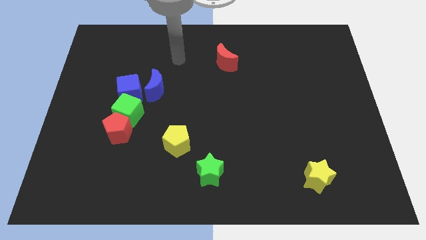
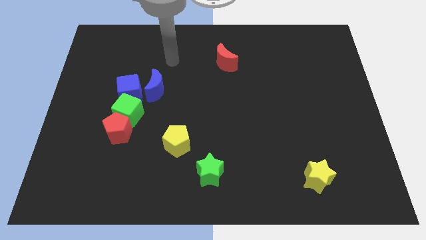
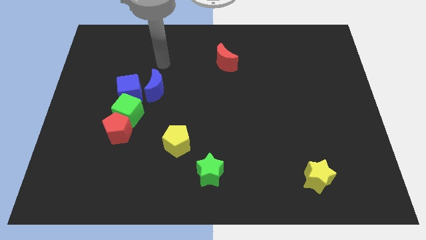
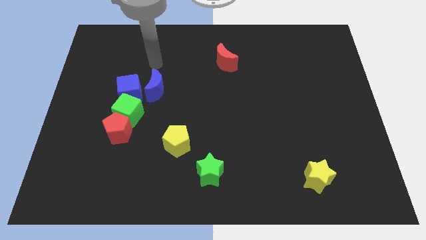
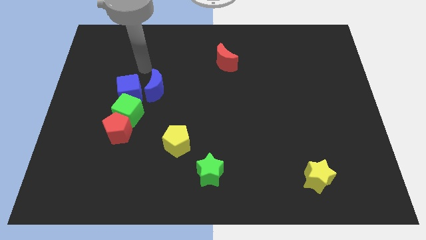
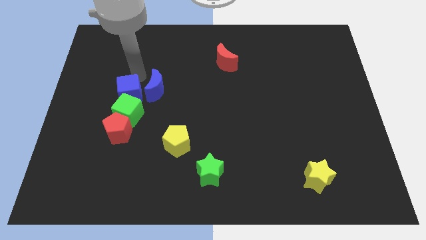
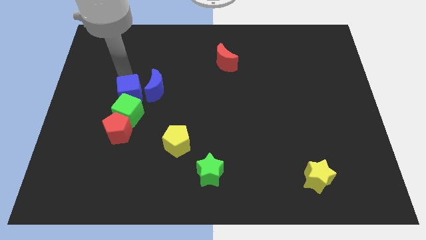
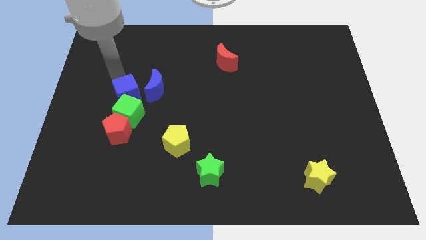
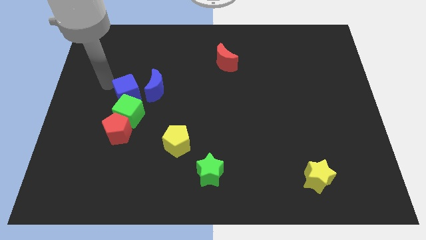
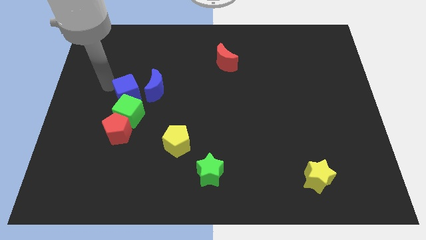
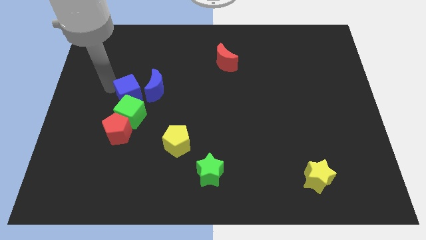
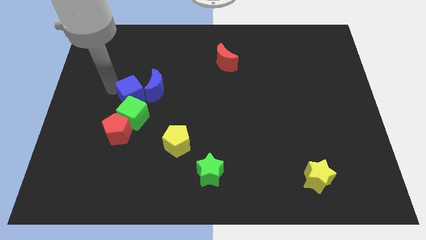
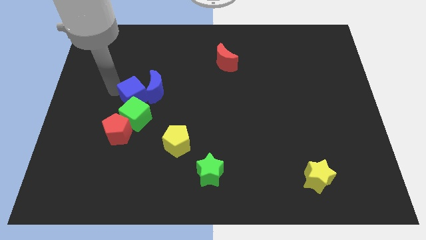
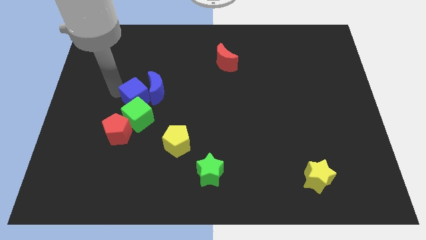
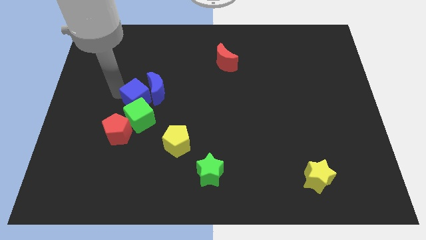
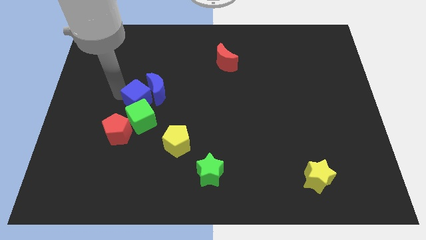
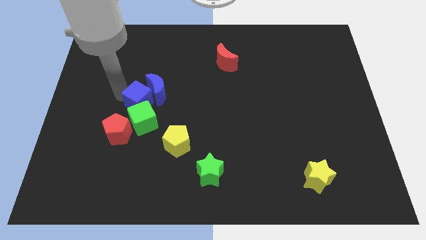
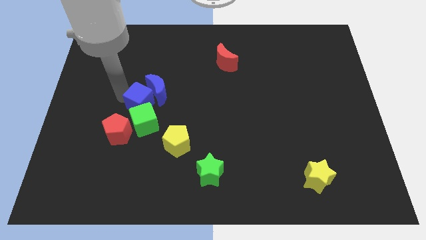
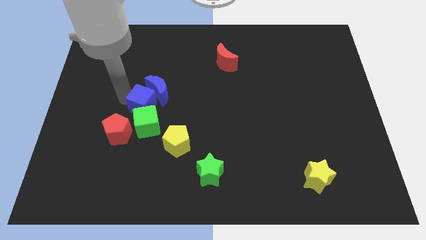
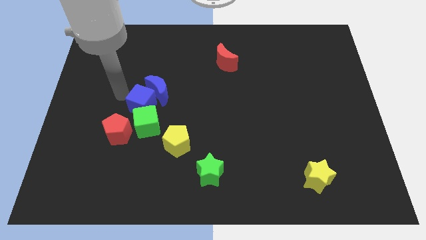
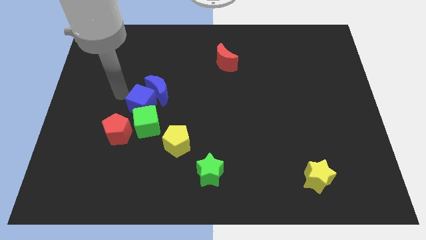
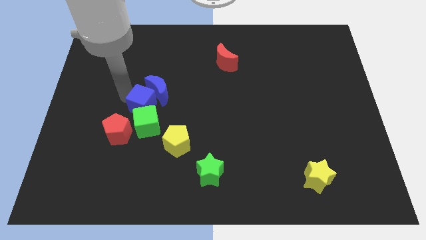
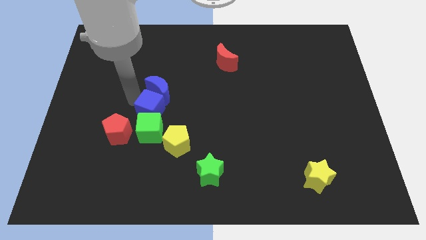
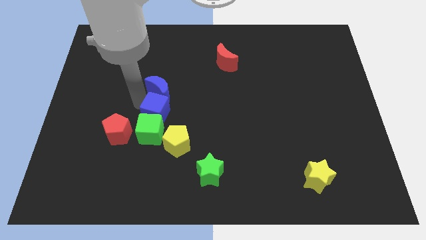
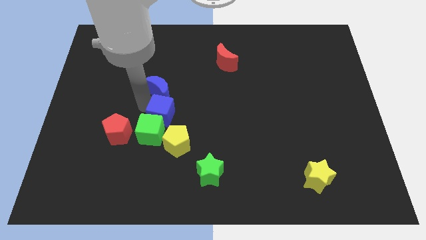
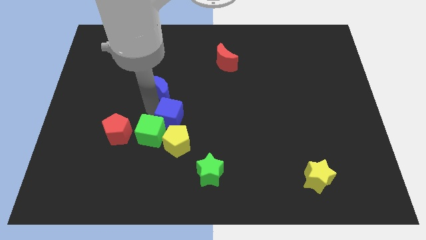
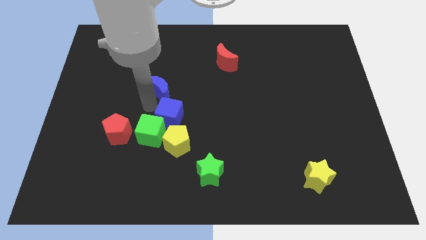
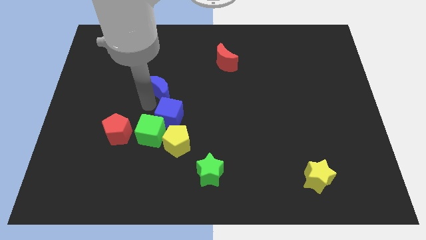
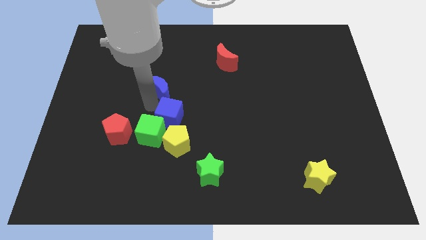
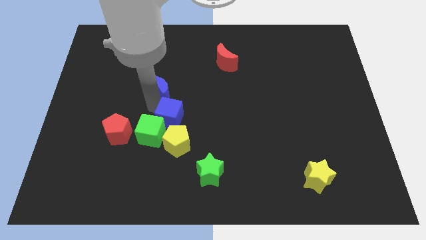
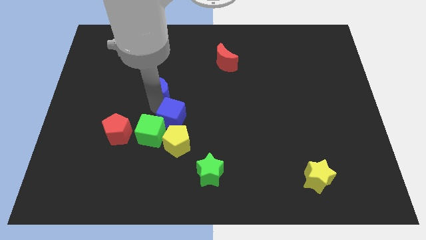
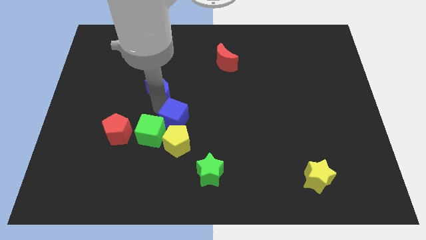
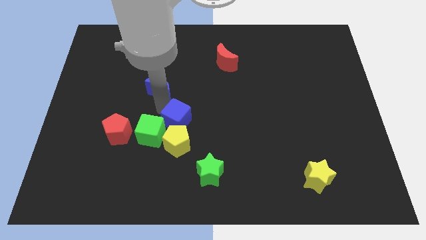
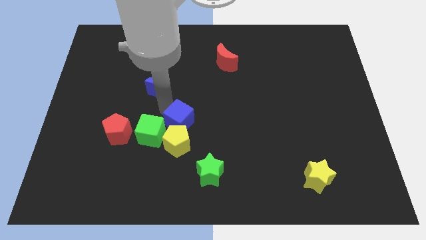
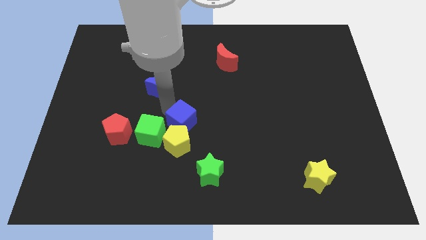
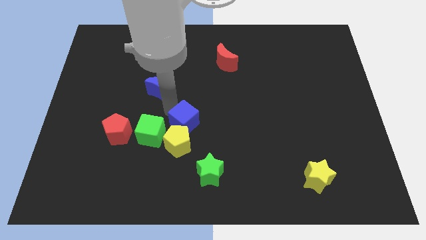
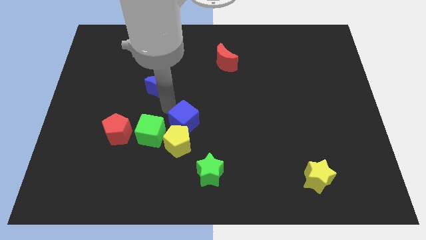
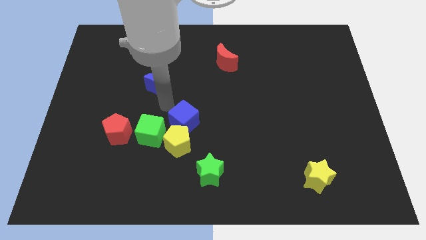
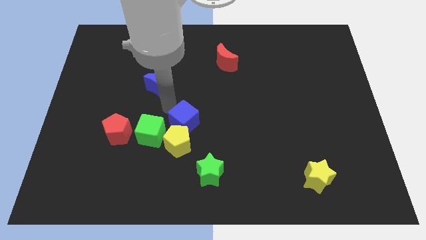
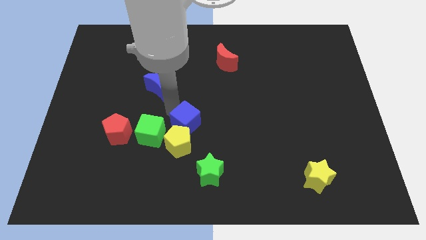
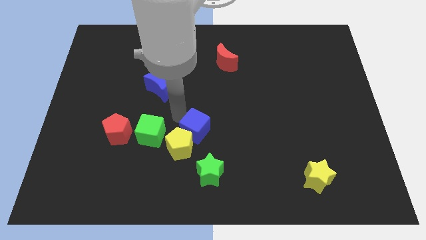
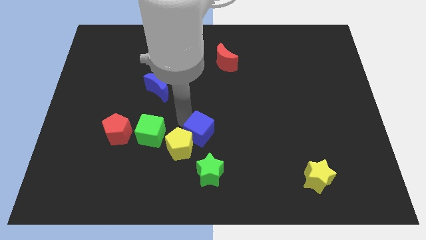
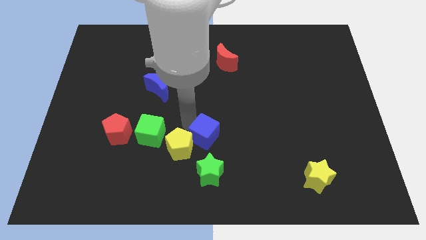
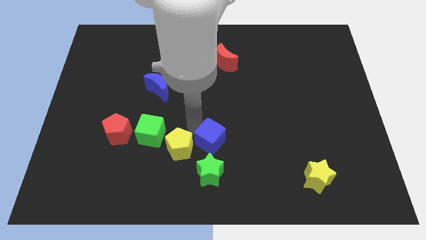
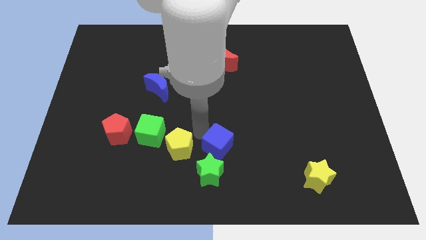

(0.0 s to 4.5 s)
push the blue cube to the top right side of the green star

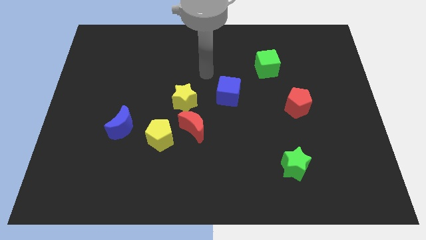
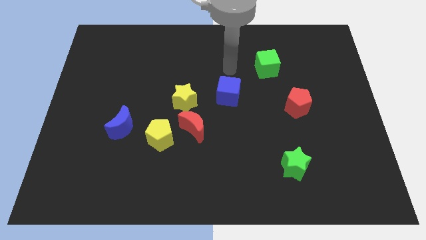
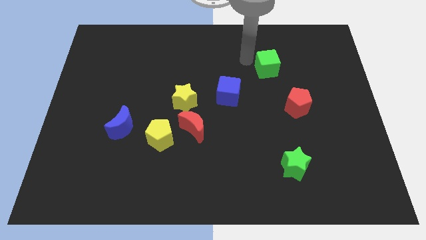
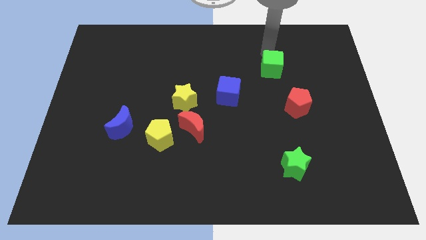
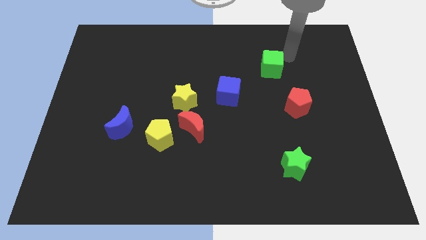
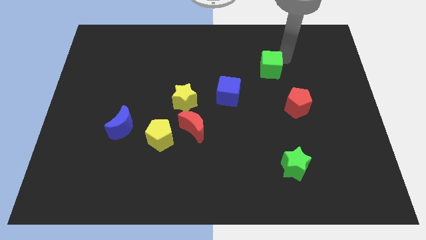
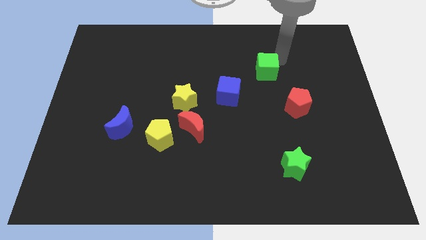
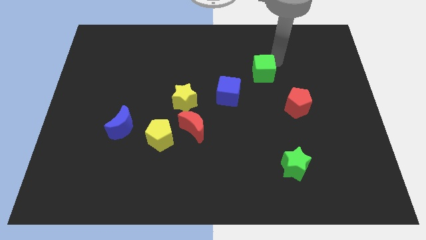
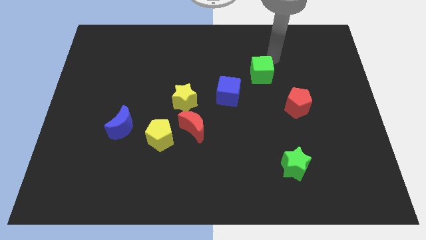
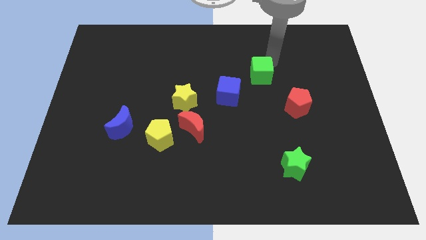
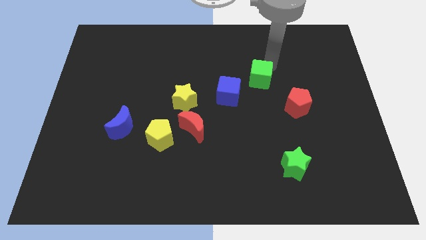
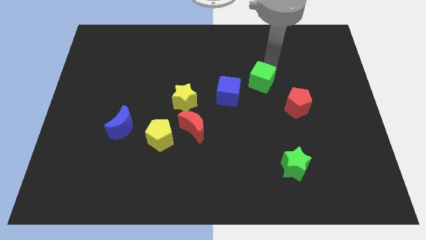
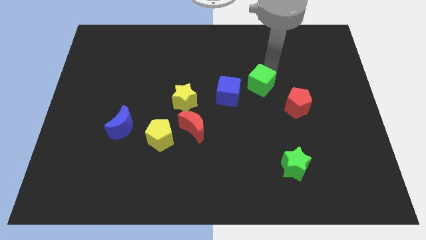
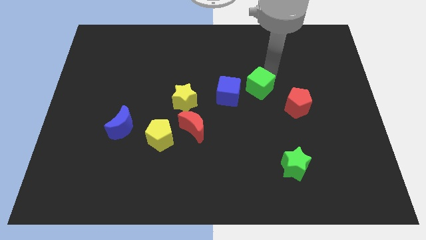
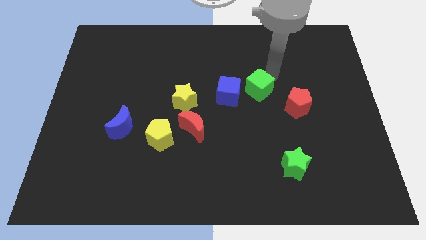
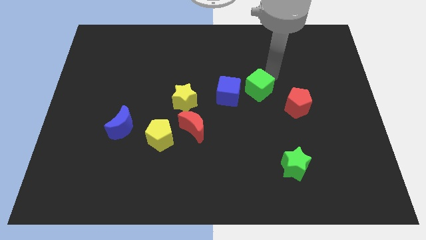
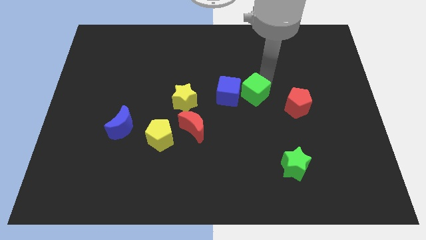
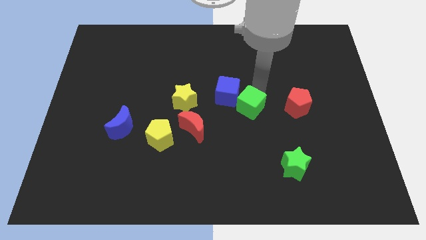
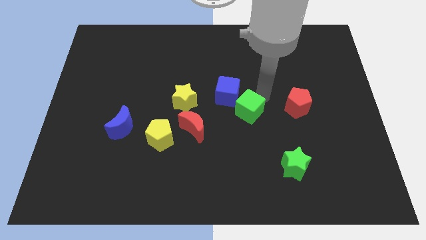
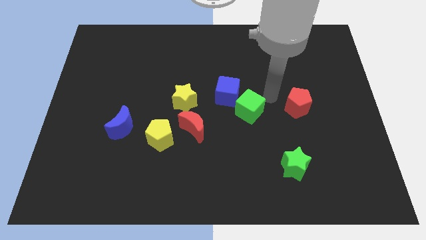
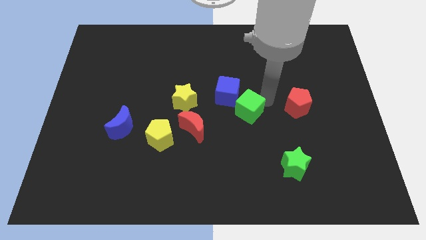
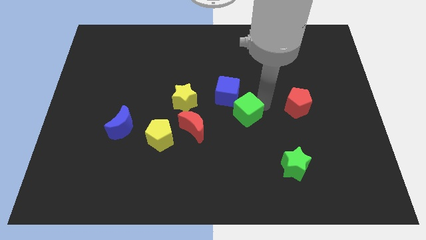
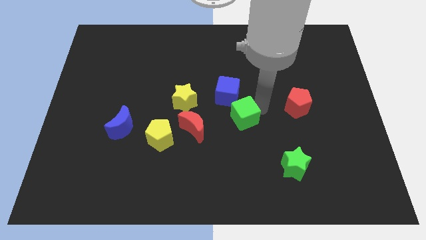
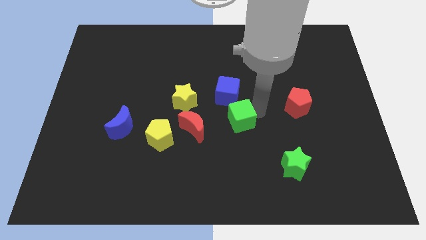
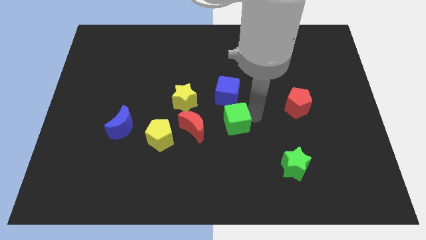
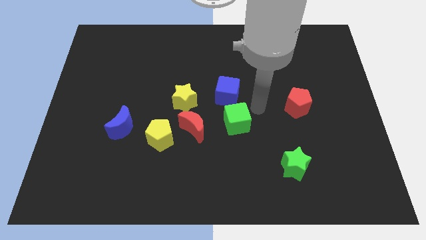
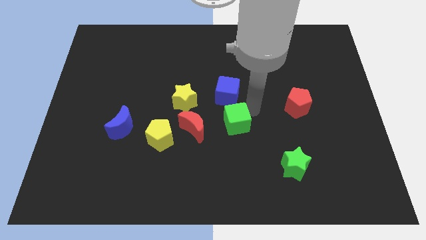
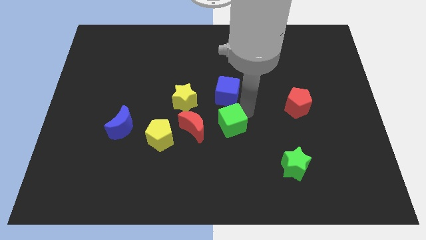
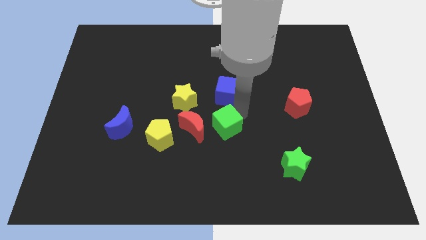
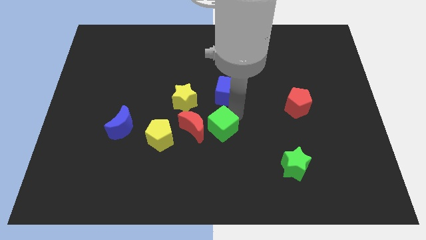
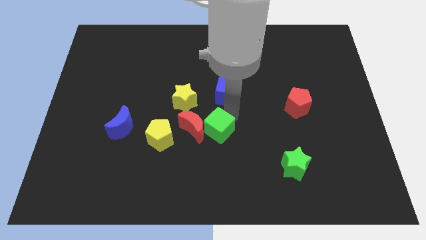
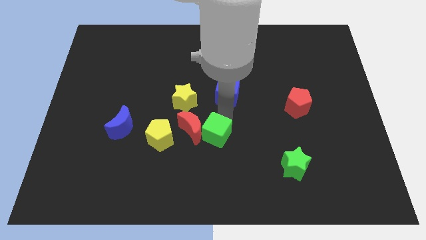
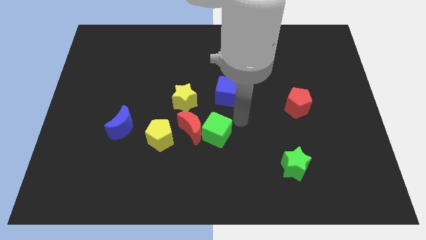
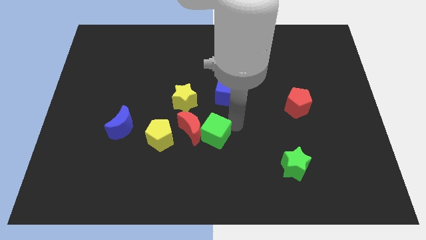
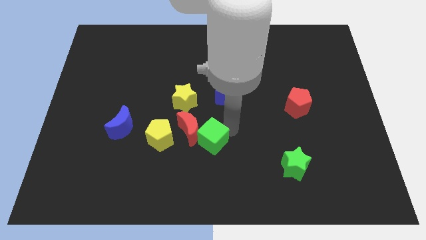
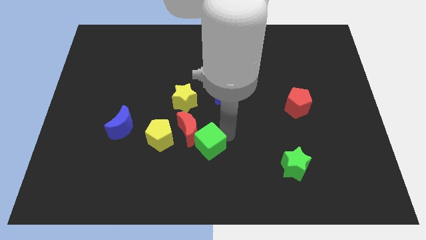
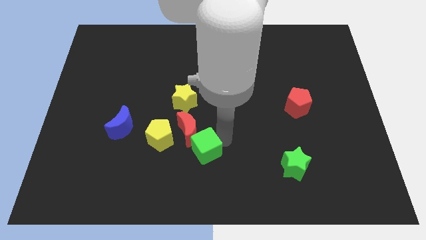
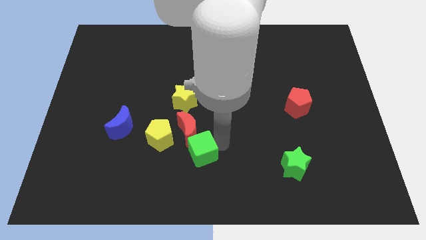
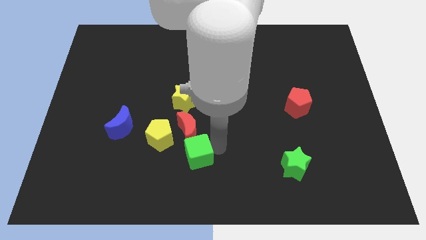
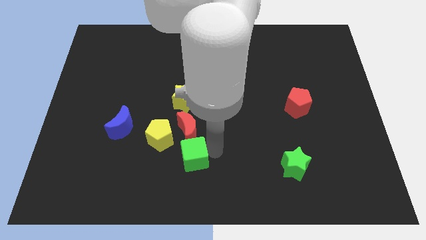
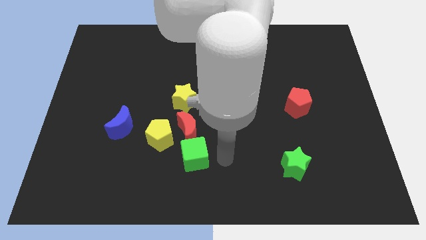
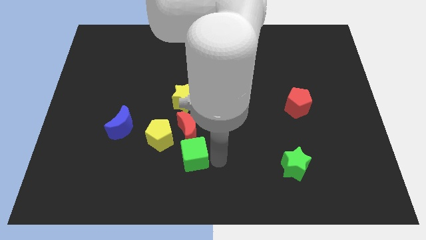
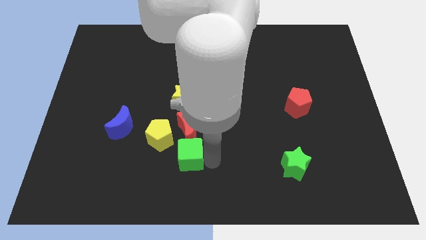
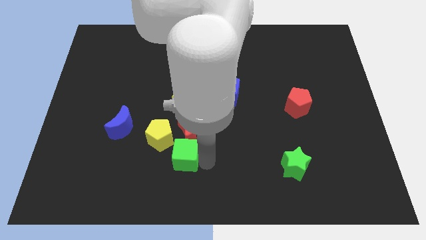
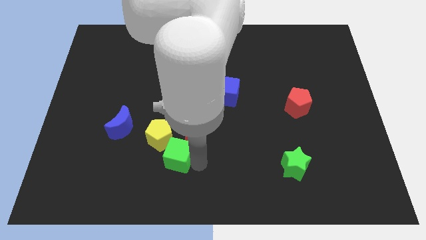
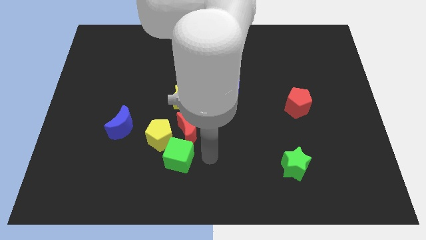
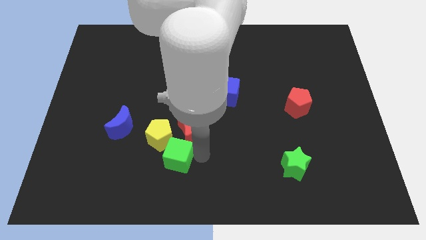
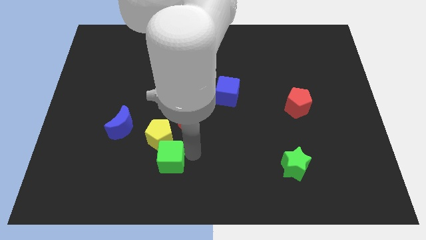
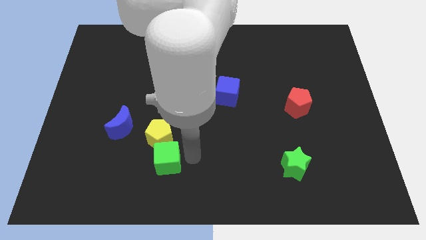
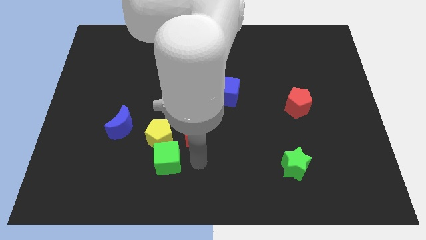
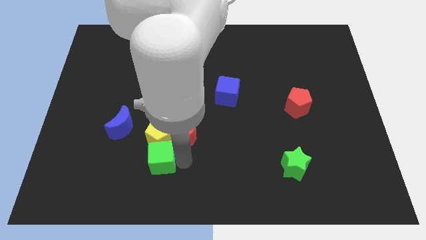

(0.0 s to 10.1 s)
put the green cube to the bottom left of the yellow pentagon
